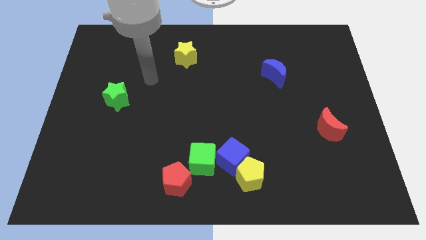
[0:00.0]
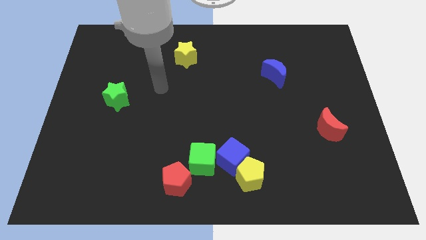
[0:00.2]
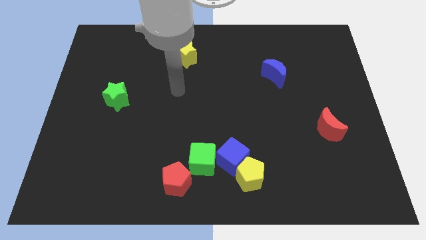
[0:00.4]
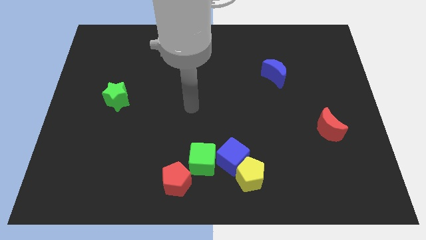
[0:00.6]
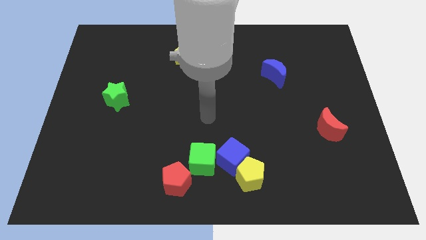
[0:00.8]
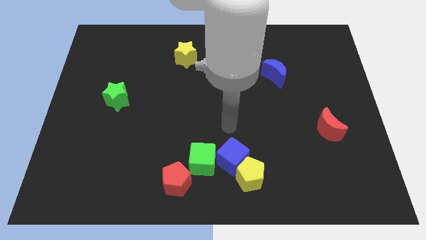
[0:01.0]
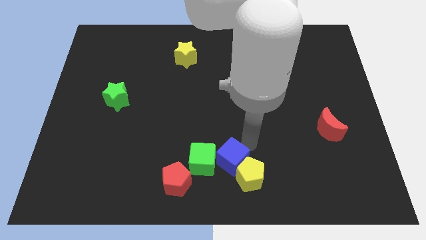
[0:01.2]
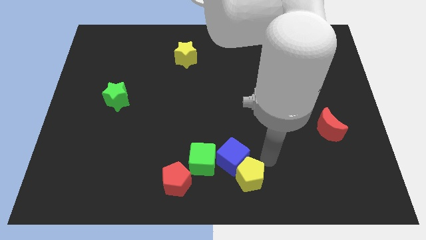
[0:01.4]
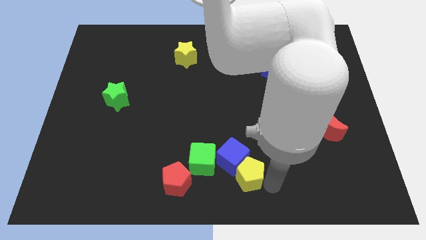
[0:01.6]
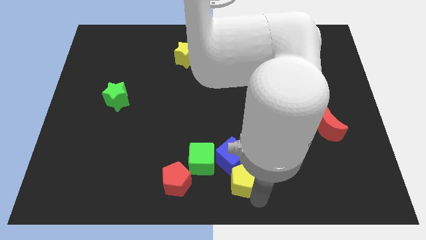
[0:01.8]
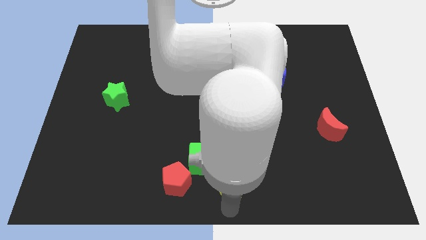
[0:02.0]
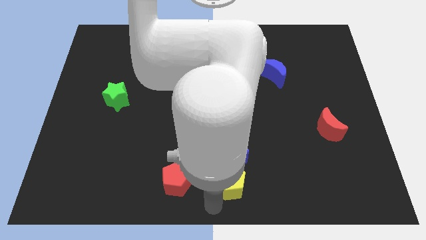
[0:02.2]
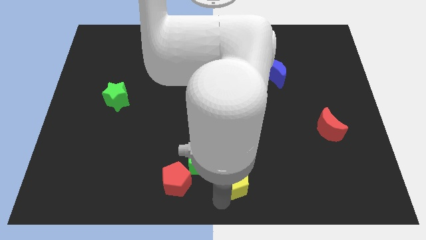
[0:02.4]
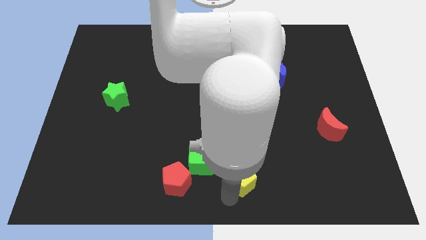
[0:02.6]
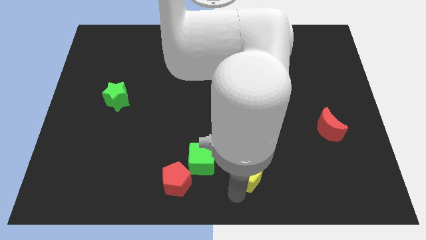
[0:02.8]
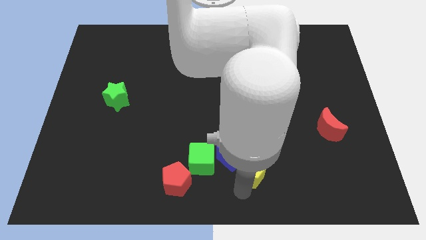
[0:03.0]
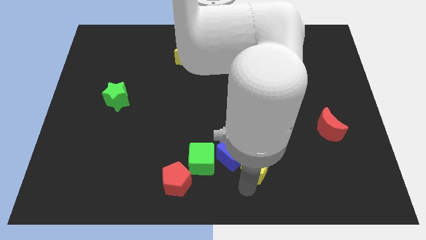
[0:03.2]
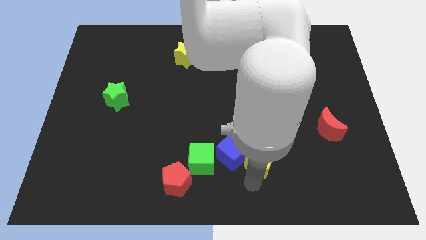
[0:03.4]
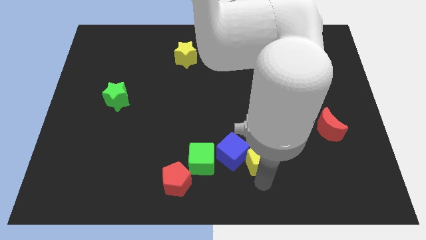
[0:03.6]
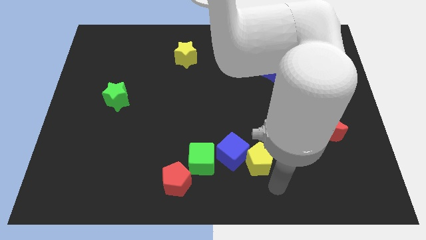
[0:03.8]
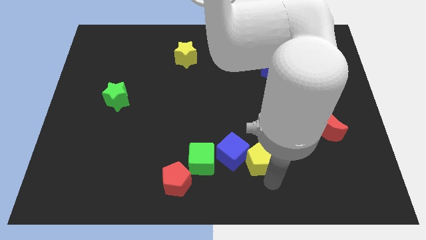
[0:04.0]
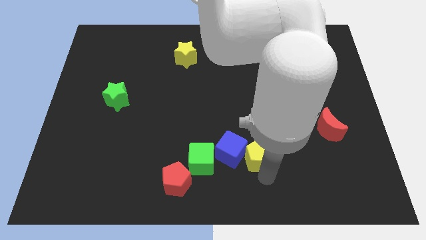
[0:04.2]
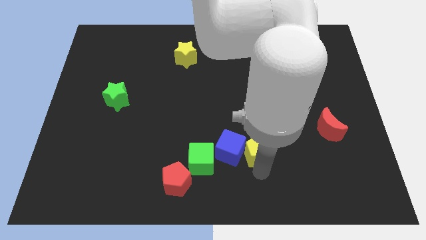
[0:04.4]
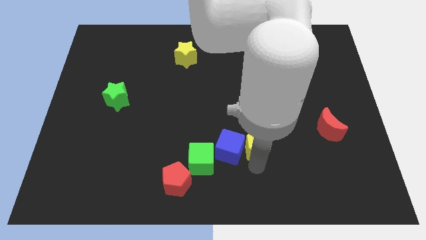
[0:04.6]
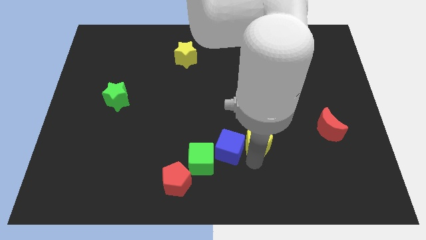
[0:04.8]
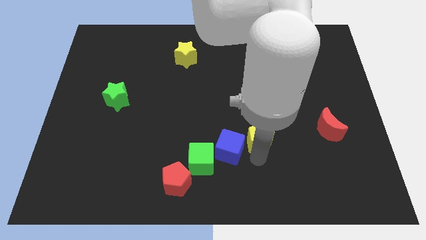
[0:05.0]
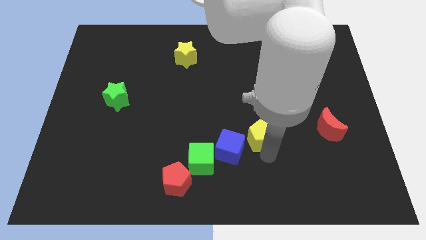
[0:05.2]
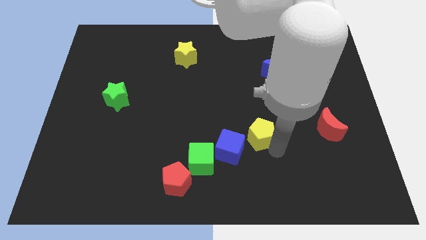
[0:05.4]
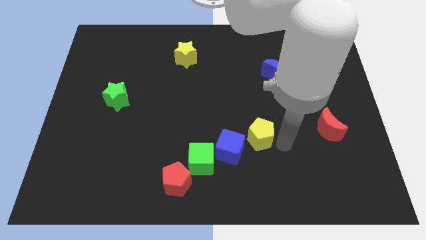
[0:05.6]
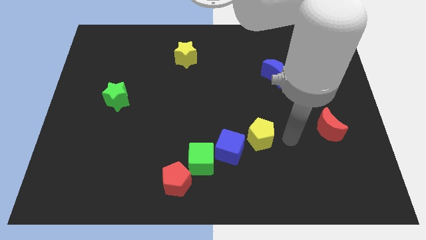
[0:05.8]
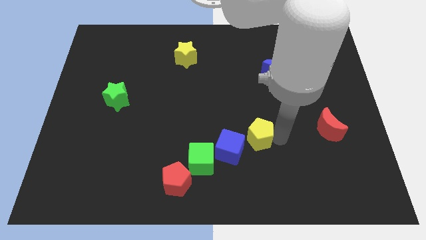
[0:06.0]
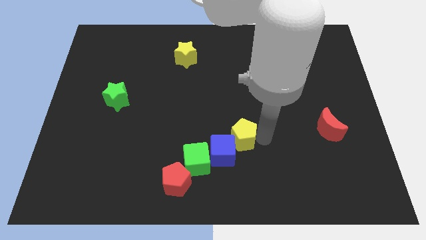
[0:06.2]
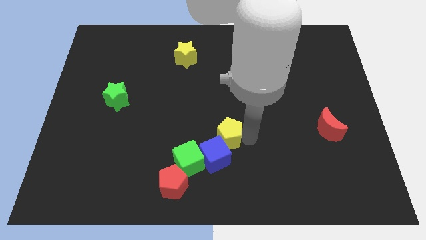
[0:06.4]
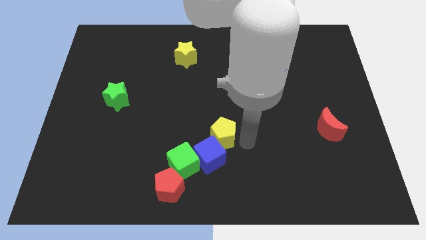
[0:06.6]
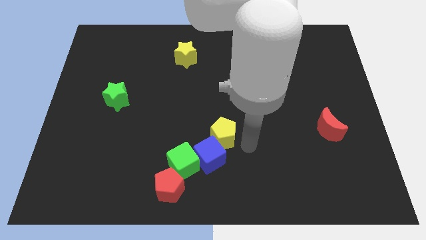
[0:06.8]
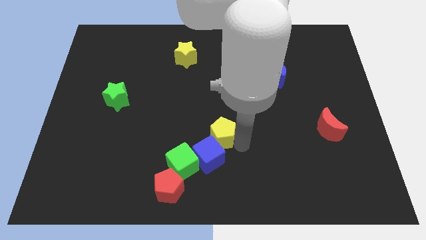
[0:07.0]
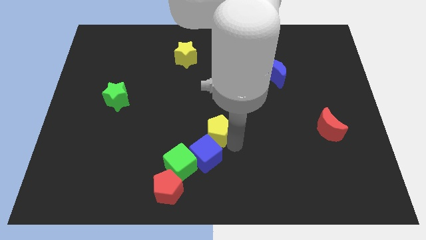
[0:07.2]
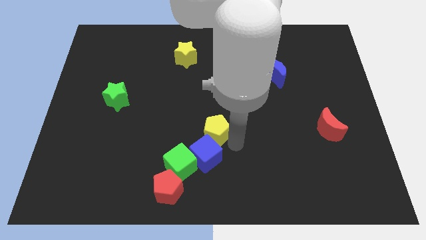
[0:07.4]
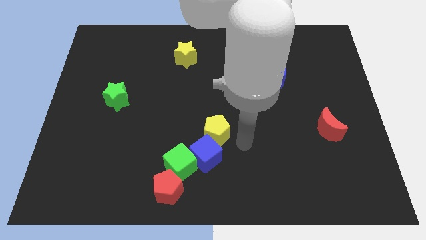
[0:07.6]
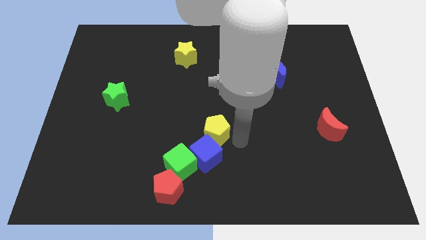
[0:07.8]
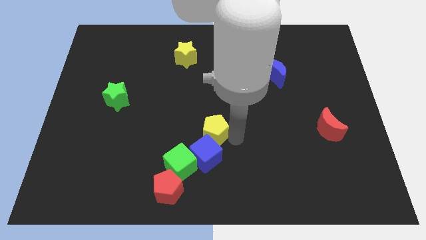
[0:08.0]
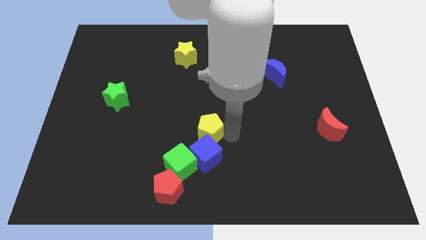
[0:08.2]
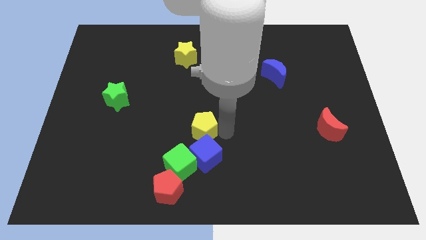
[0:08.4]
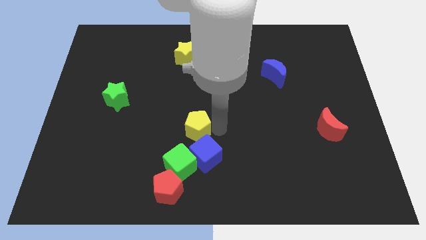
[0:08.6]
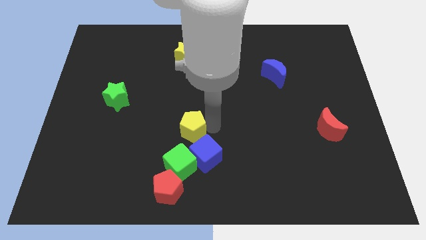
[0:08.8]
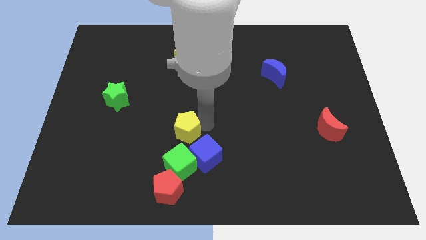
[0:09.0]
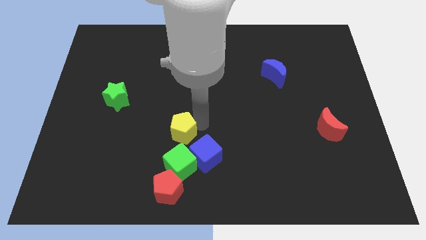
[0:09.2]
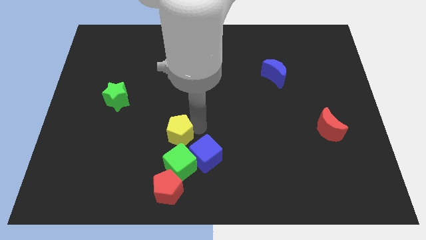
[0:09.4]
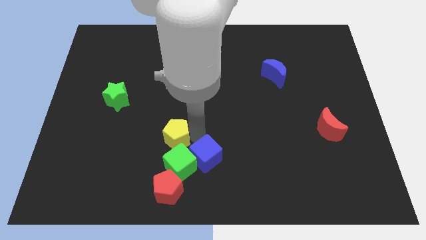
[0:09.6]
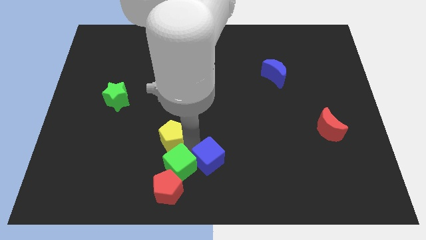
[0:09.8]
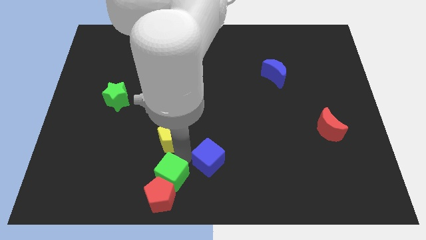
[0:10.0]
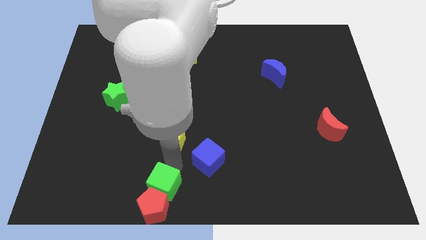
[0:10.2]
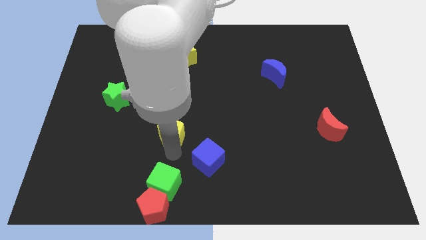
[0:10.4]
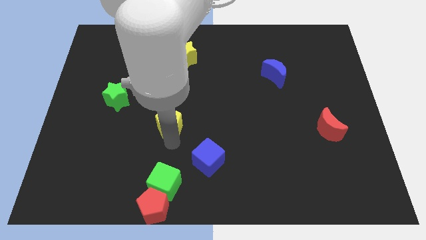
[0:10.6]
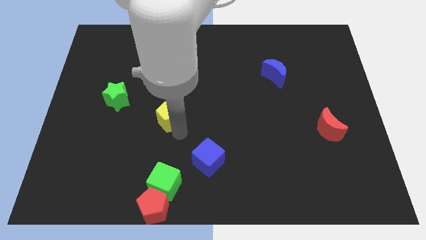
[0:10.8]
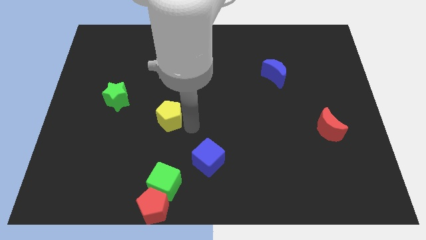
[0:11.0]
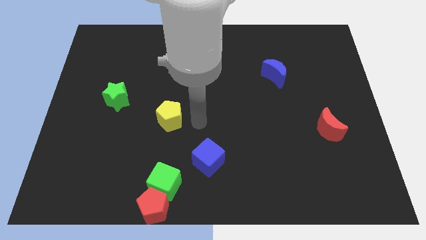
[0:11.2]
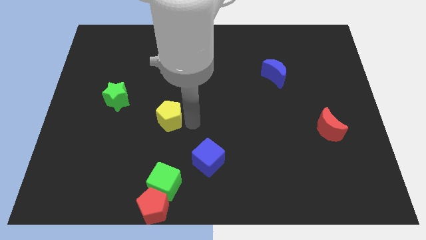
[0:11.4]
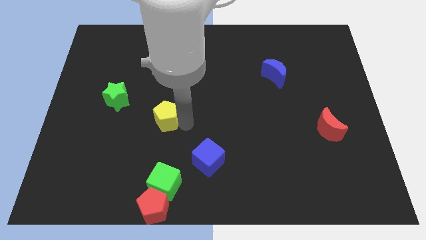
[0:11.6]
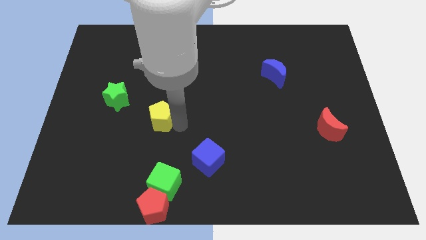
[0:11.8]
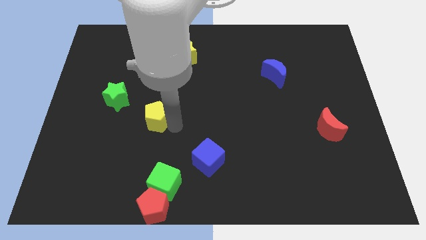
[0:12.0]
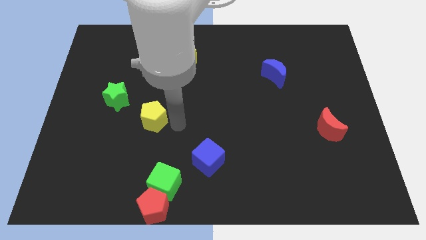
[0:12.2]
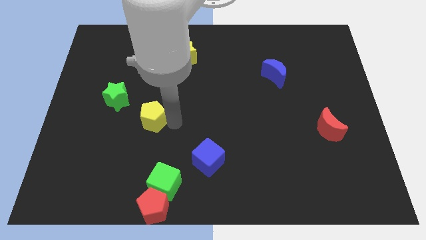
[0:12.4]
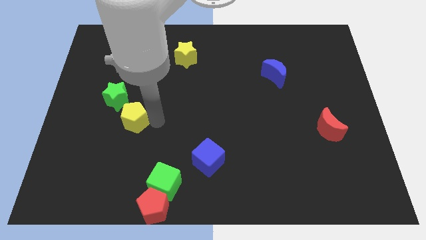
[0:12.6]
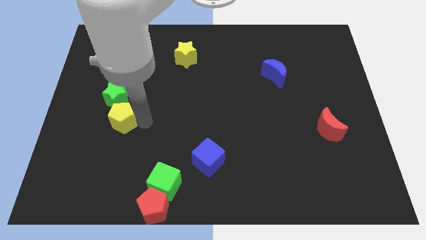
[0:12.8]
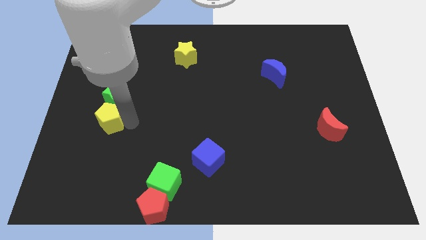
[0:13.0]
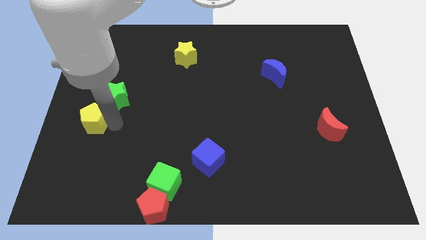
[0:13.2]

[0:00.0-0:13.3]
put the yellow pentagon to the left side

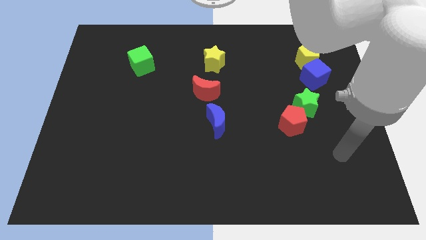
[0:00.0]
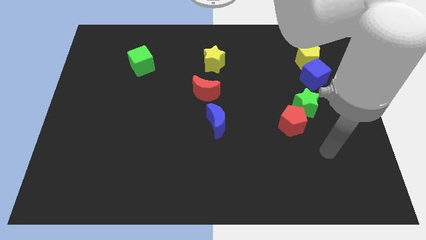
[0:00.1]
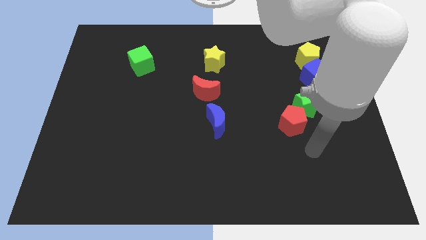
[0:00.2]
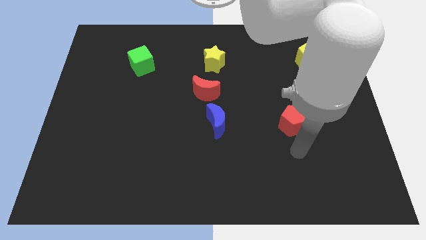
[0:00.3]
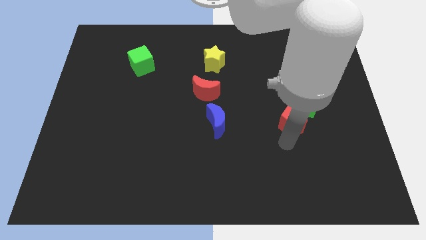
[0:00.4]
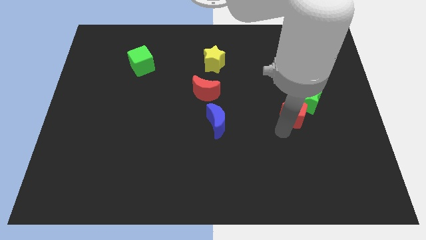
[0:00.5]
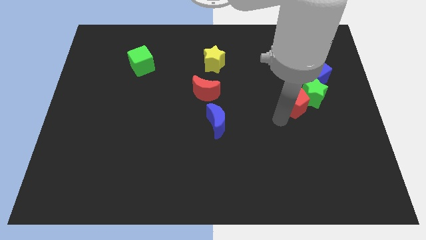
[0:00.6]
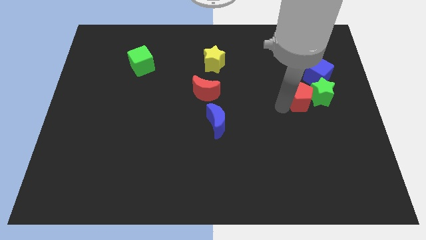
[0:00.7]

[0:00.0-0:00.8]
slide the green star to the center right

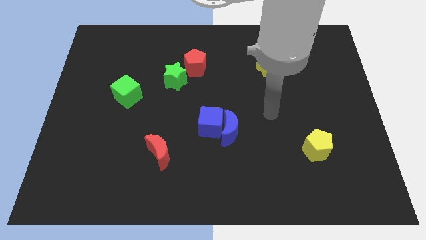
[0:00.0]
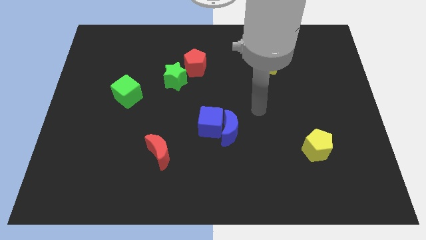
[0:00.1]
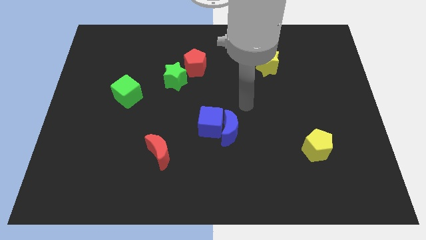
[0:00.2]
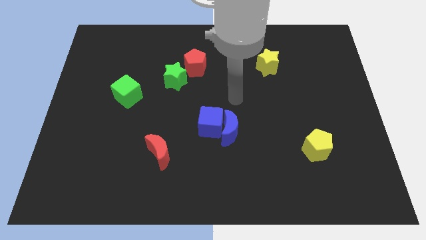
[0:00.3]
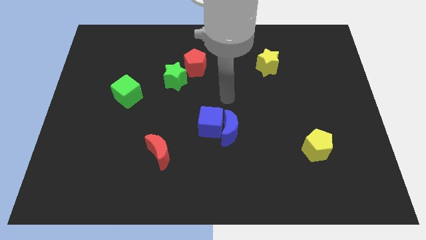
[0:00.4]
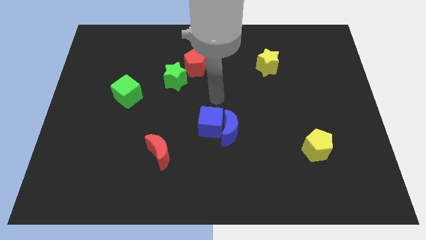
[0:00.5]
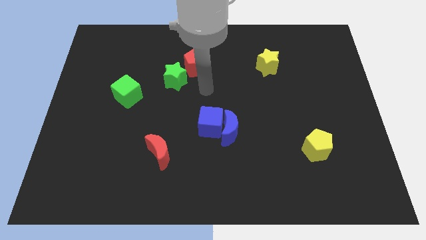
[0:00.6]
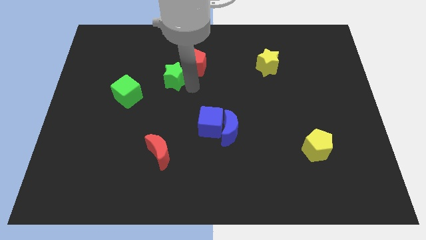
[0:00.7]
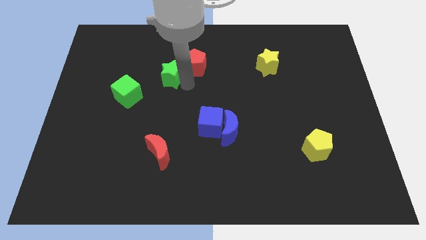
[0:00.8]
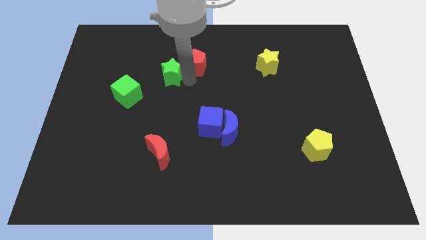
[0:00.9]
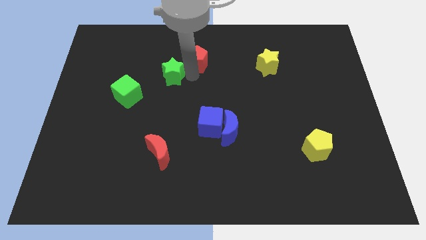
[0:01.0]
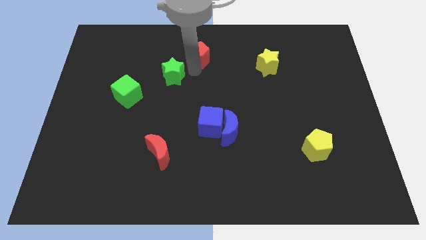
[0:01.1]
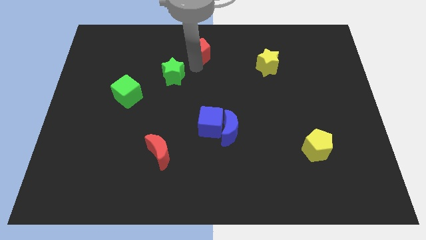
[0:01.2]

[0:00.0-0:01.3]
put the red pentagon to the towards your base
